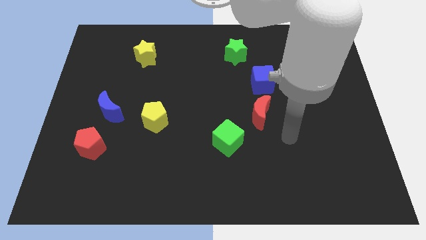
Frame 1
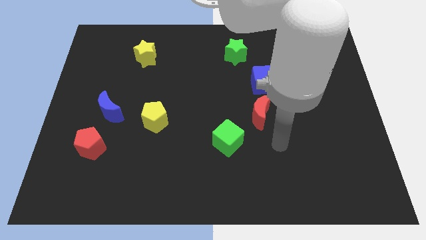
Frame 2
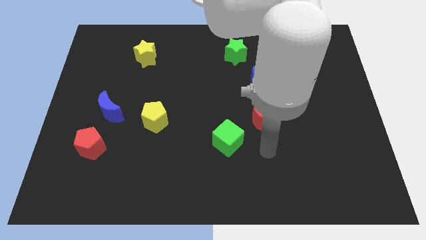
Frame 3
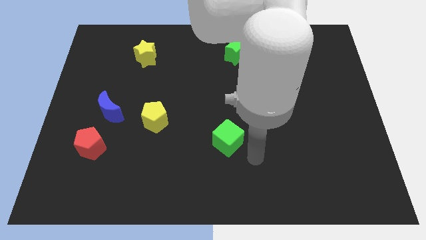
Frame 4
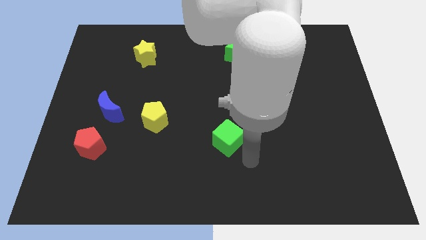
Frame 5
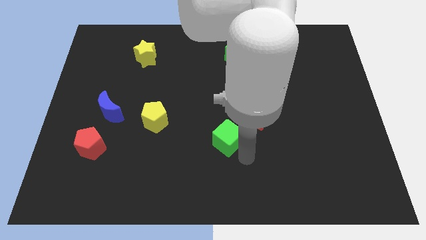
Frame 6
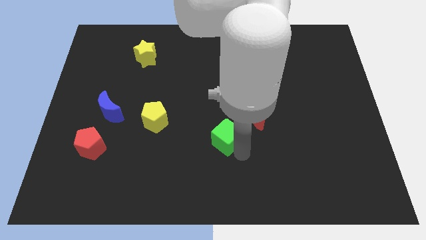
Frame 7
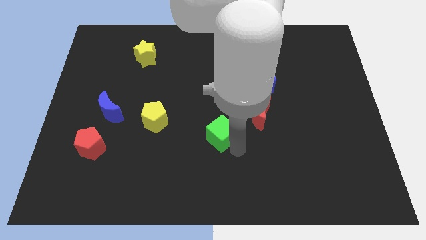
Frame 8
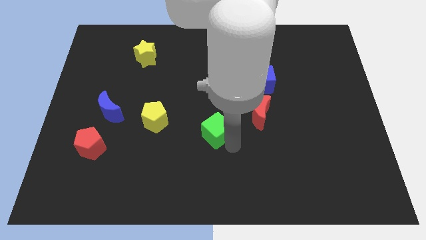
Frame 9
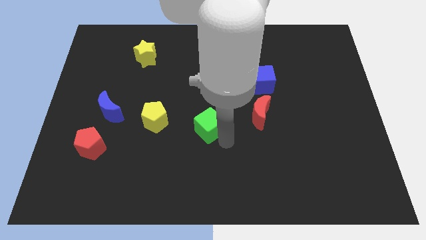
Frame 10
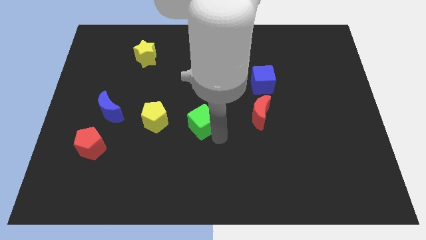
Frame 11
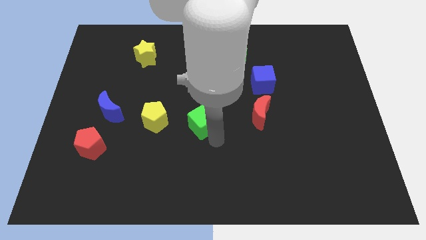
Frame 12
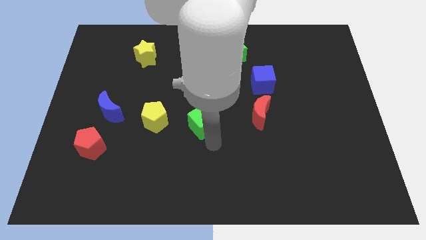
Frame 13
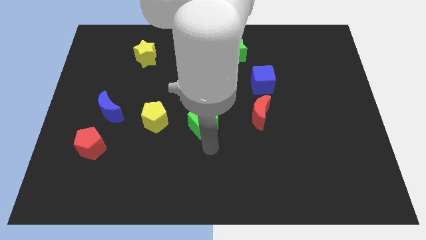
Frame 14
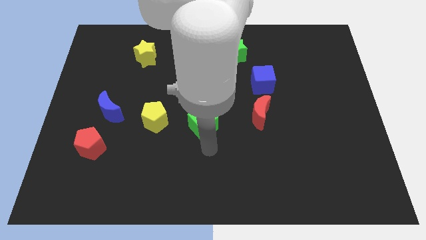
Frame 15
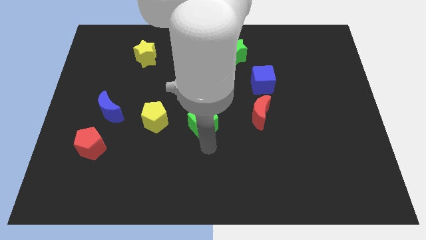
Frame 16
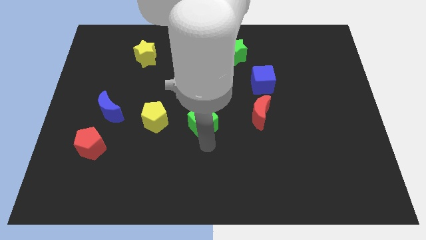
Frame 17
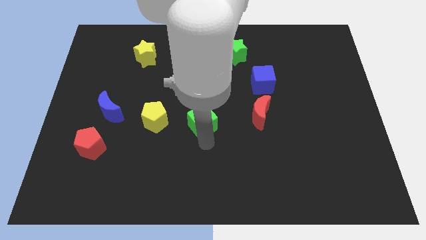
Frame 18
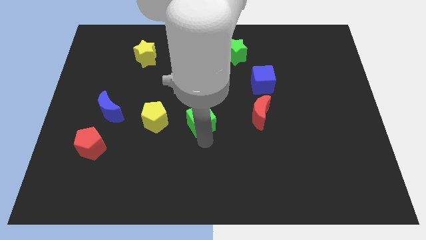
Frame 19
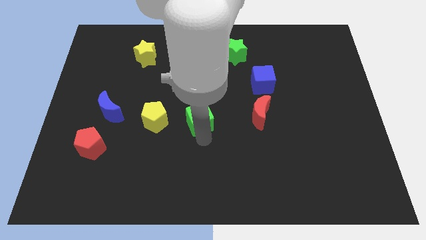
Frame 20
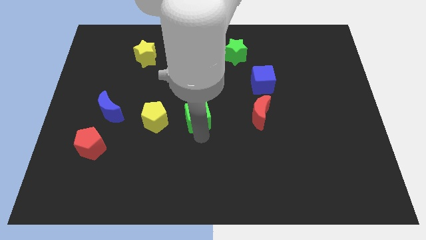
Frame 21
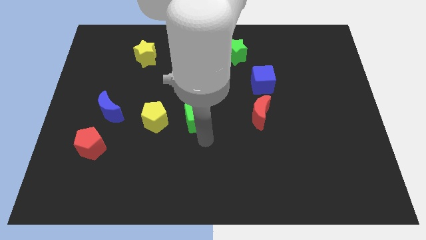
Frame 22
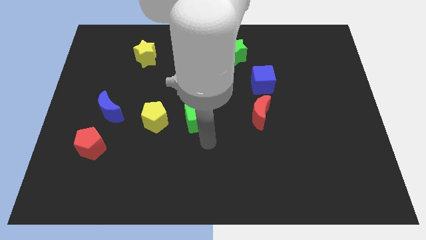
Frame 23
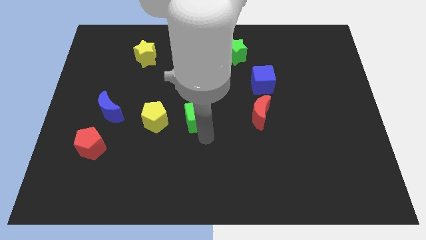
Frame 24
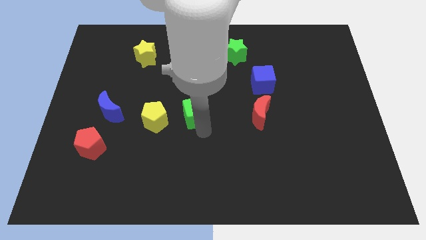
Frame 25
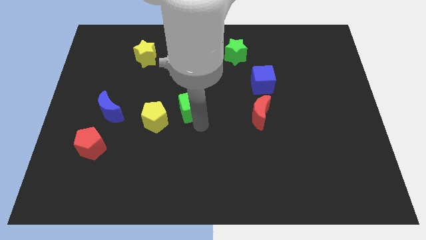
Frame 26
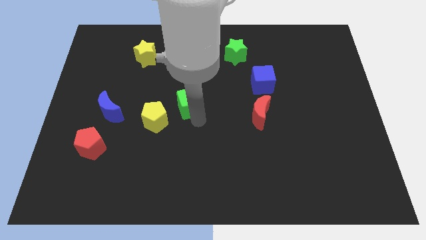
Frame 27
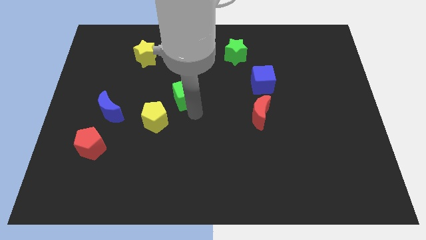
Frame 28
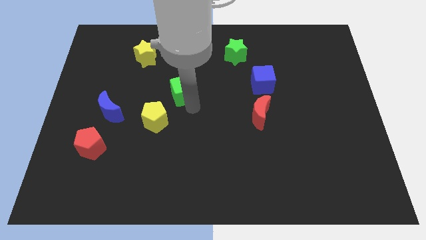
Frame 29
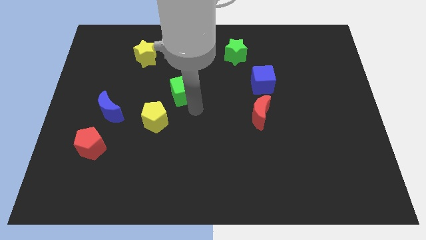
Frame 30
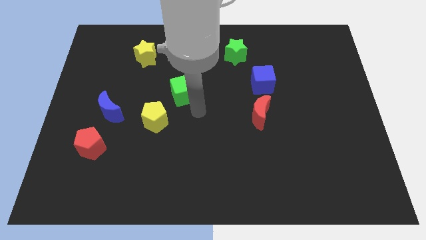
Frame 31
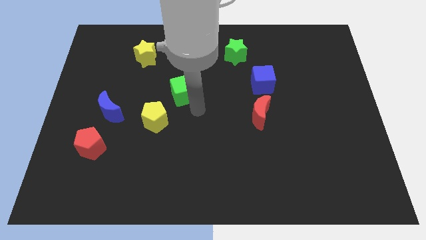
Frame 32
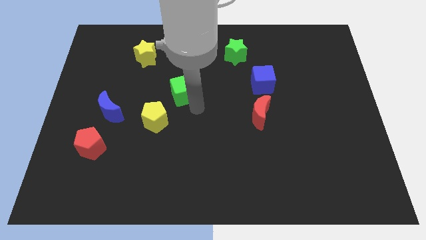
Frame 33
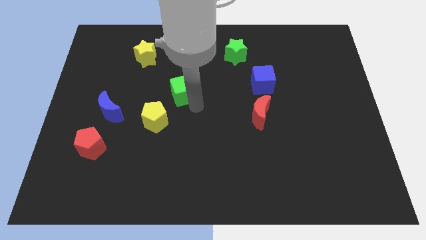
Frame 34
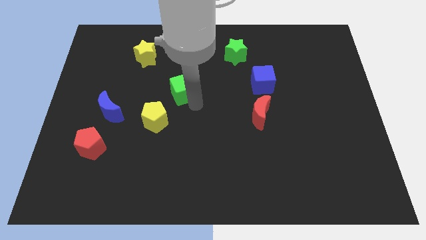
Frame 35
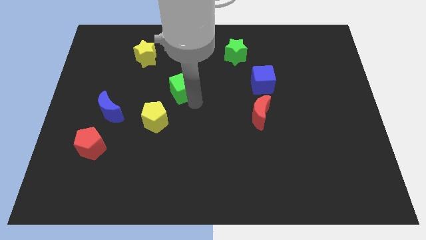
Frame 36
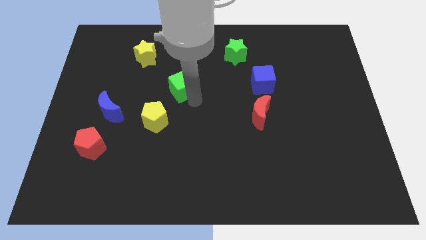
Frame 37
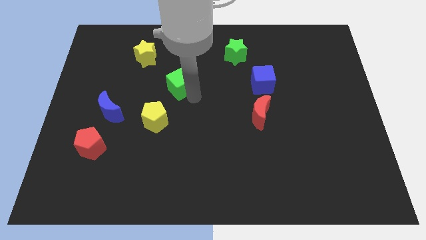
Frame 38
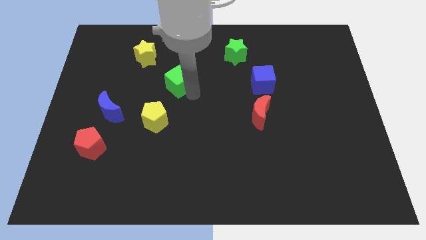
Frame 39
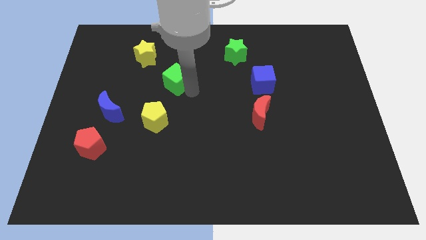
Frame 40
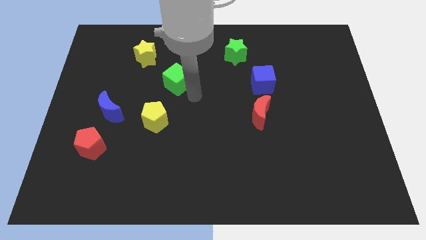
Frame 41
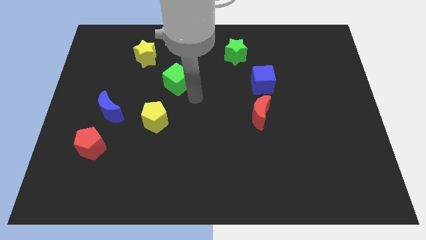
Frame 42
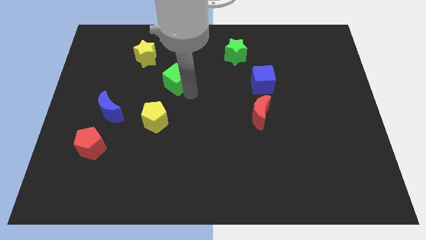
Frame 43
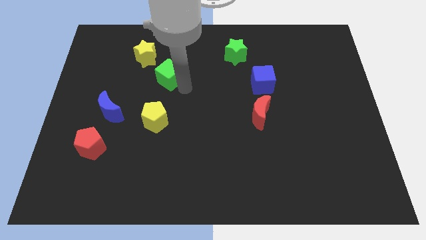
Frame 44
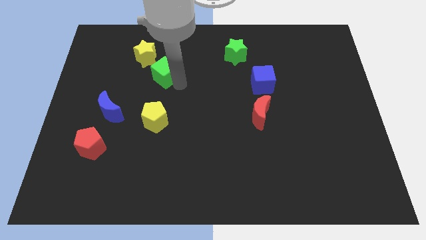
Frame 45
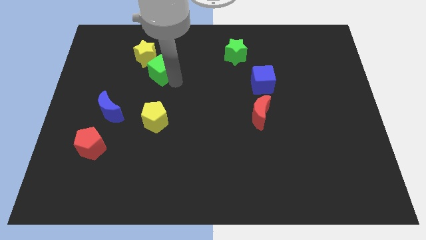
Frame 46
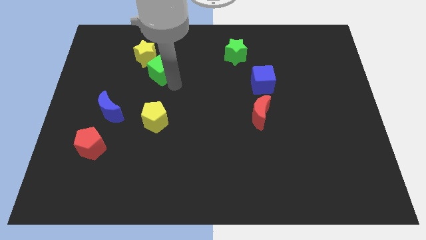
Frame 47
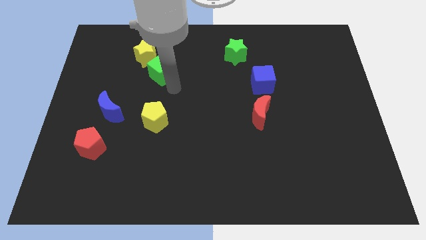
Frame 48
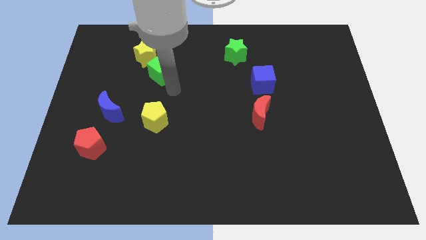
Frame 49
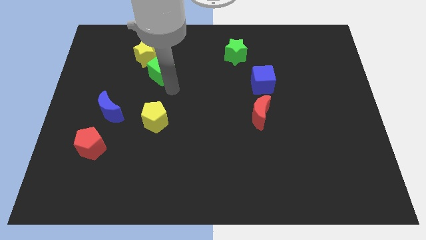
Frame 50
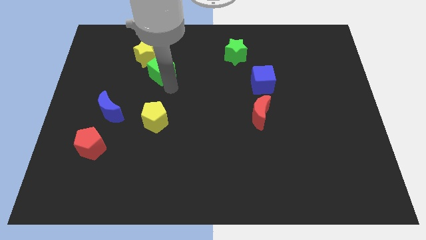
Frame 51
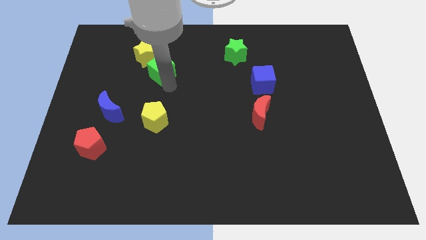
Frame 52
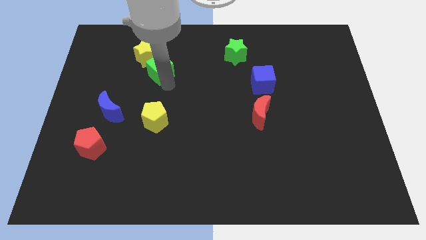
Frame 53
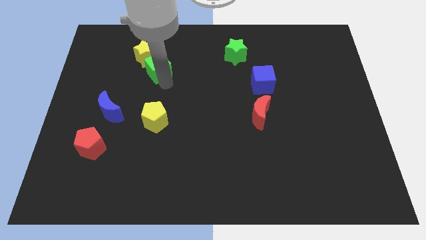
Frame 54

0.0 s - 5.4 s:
move the green cube towards the yellow star

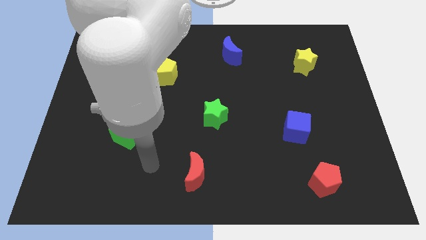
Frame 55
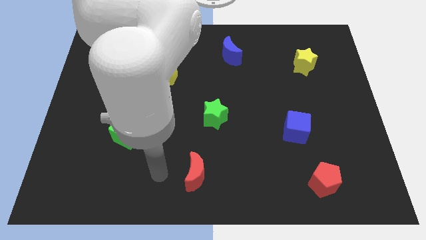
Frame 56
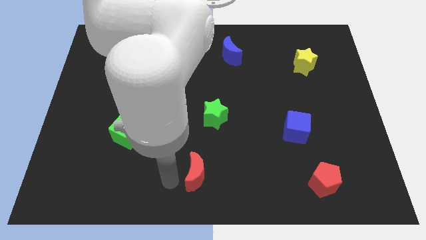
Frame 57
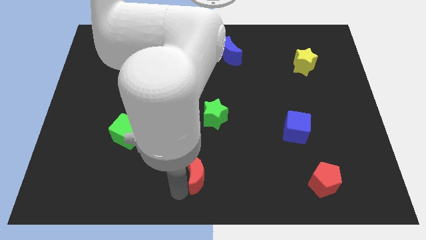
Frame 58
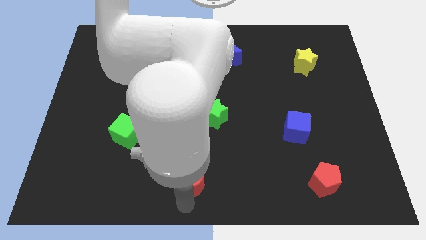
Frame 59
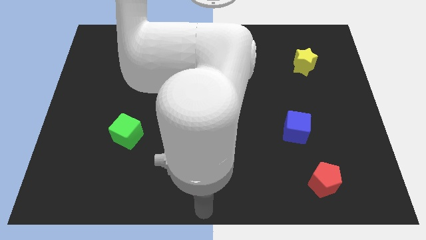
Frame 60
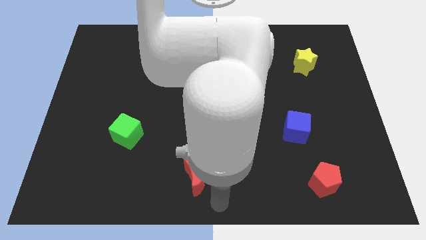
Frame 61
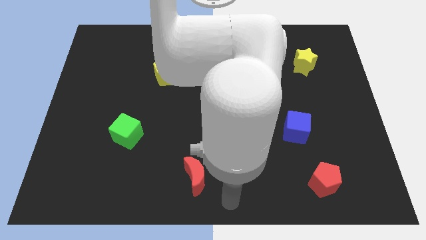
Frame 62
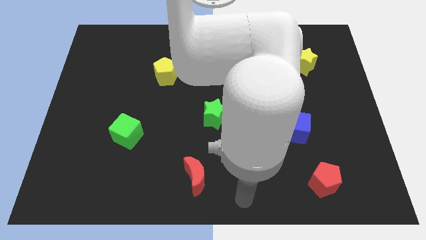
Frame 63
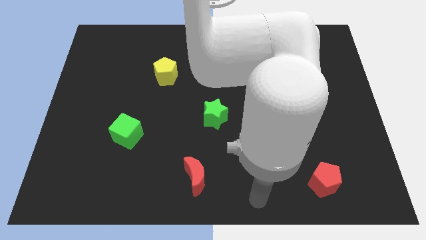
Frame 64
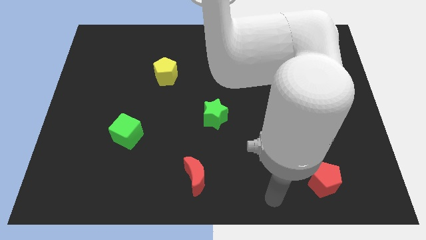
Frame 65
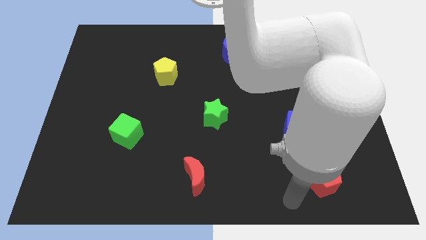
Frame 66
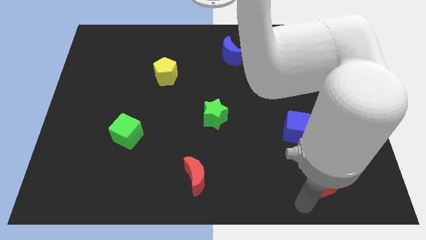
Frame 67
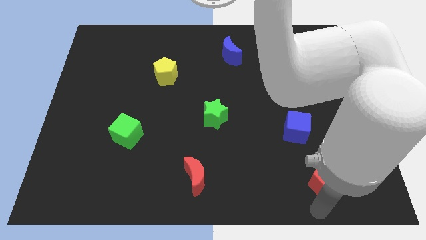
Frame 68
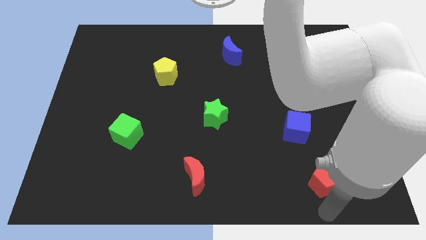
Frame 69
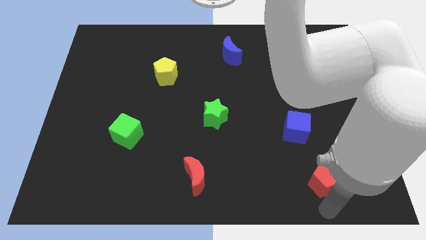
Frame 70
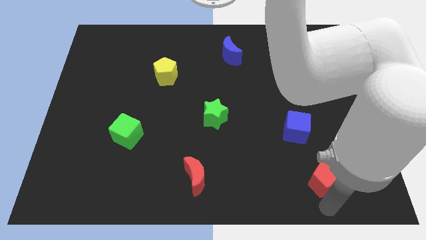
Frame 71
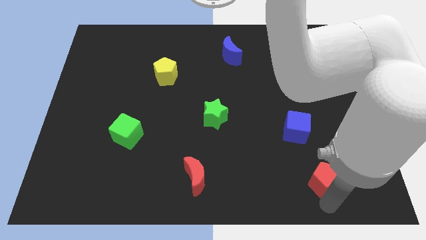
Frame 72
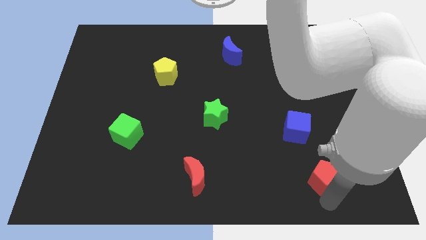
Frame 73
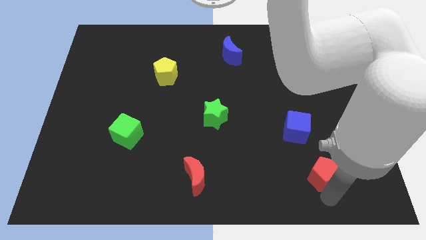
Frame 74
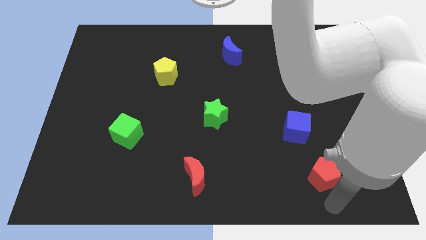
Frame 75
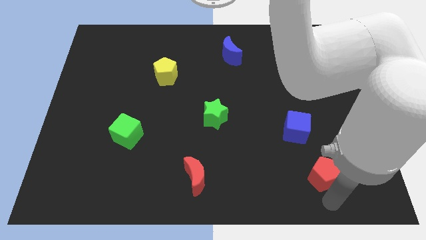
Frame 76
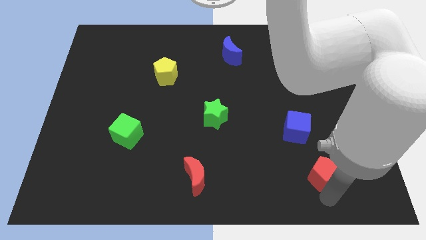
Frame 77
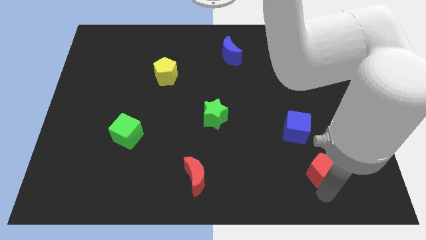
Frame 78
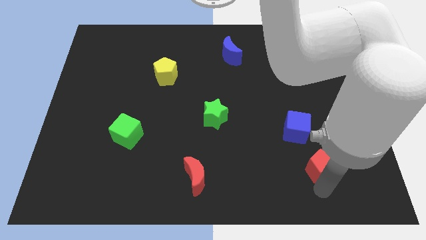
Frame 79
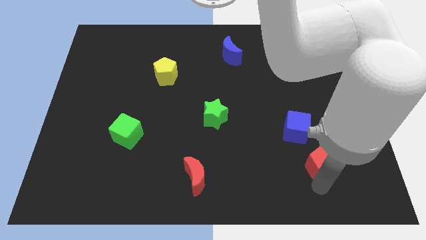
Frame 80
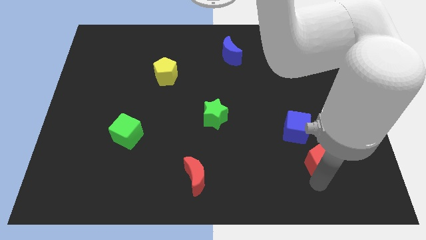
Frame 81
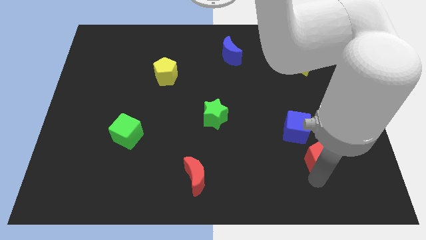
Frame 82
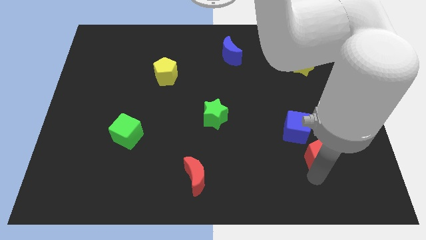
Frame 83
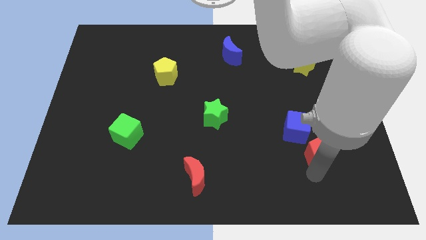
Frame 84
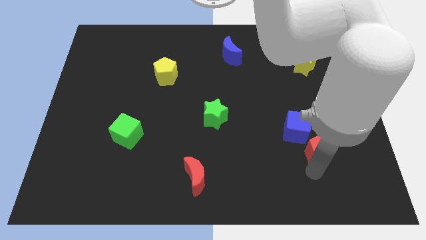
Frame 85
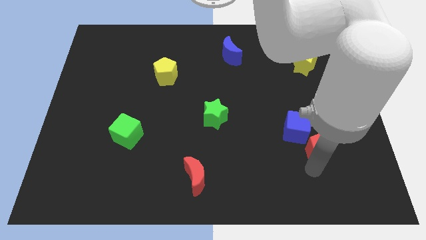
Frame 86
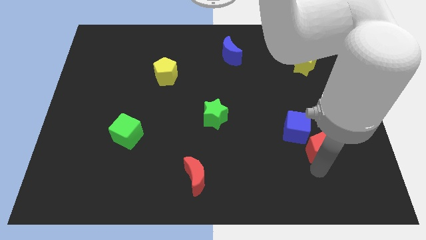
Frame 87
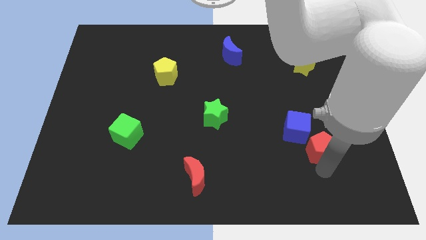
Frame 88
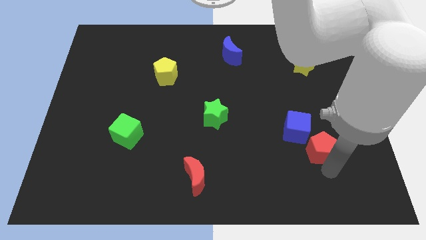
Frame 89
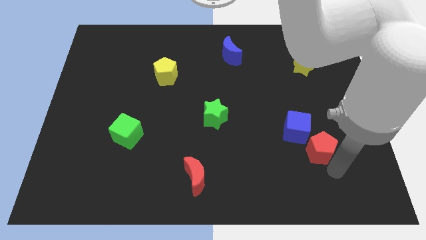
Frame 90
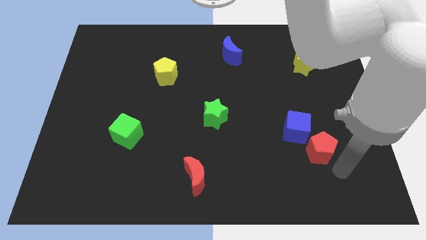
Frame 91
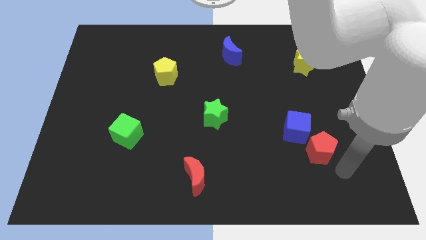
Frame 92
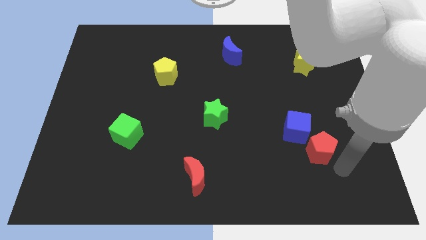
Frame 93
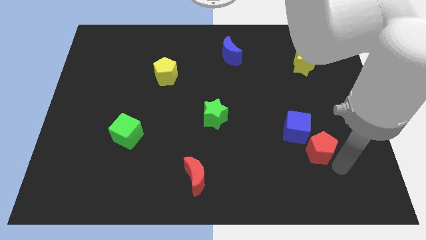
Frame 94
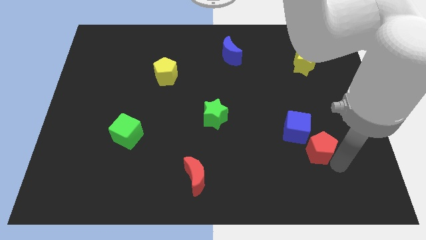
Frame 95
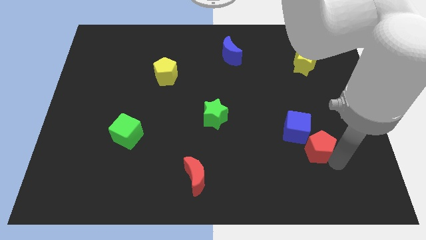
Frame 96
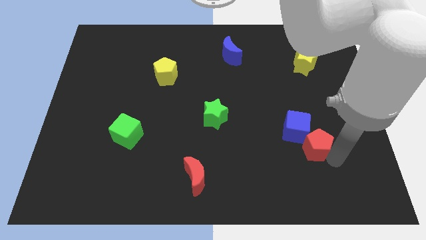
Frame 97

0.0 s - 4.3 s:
move the red pentagon to the blue cube
